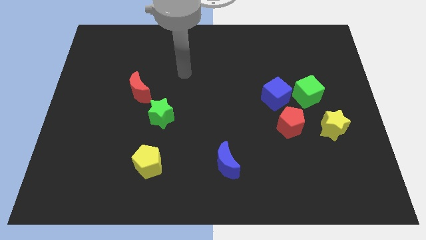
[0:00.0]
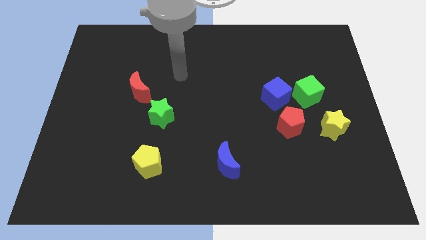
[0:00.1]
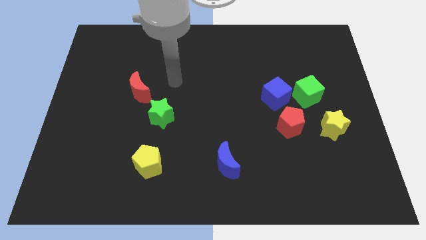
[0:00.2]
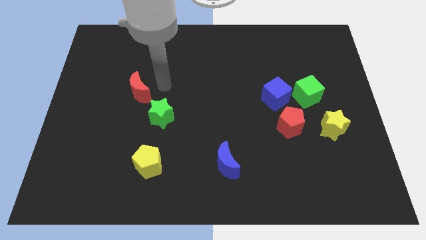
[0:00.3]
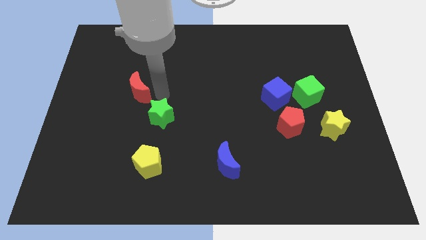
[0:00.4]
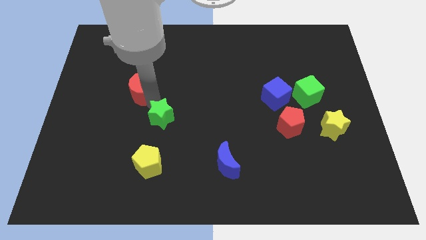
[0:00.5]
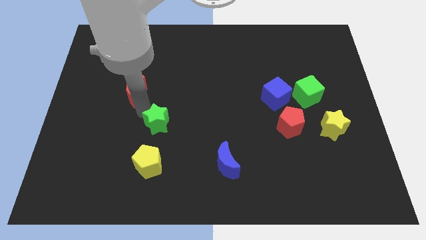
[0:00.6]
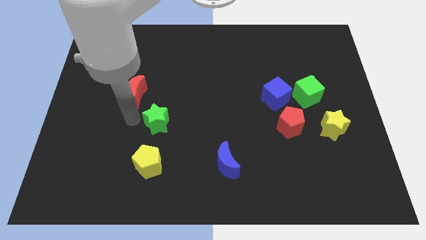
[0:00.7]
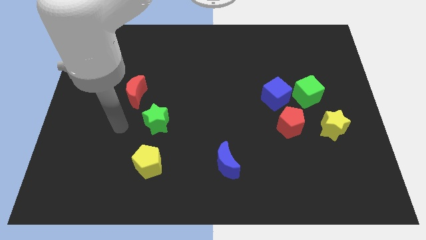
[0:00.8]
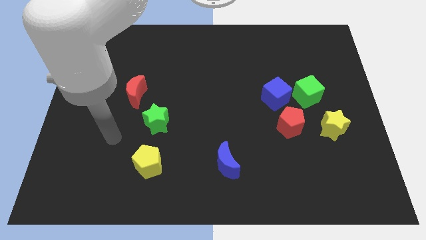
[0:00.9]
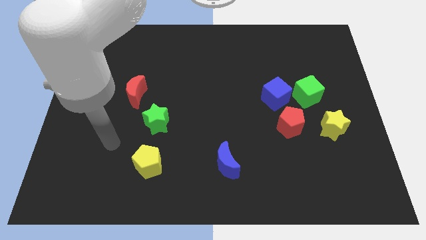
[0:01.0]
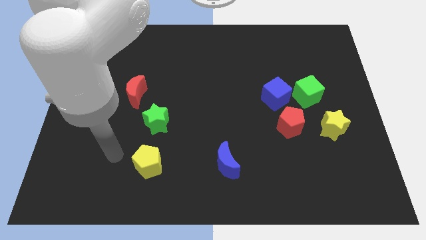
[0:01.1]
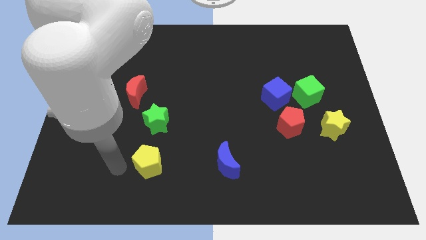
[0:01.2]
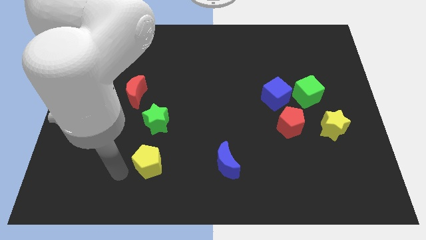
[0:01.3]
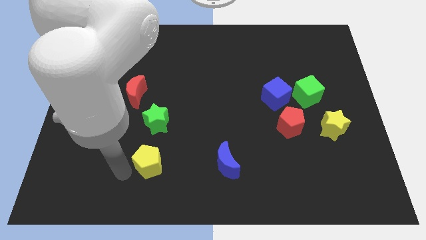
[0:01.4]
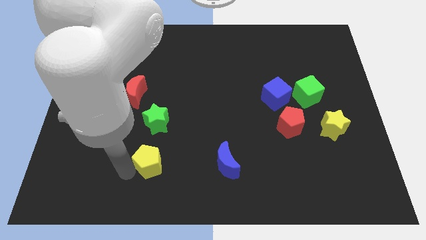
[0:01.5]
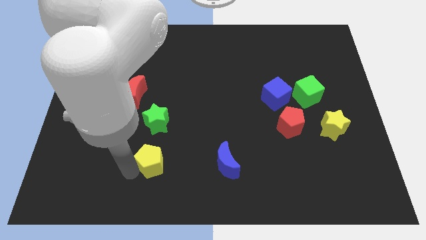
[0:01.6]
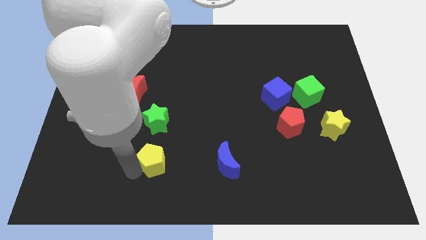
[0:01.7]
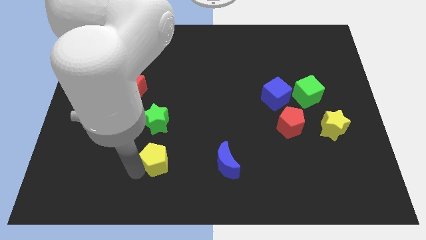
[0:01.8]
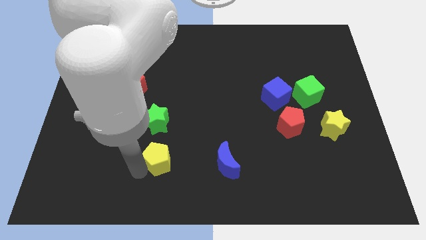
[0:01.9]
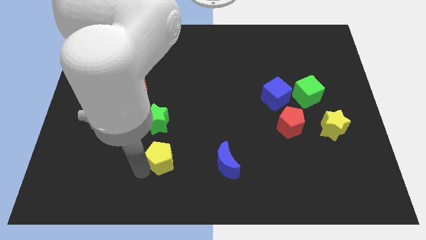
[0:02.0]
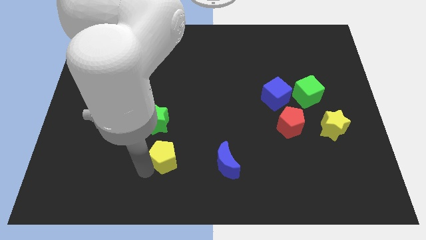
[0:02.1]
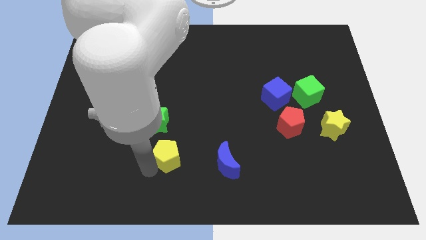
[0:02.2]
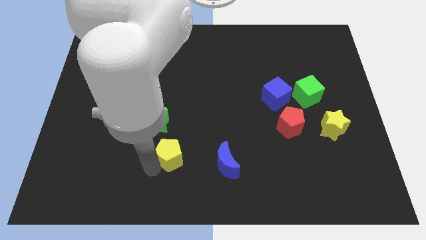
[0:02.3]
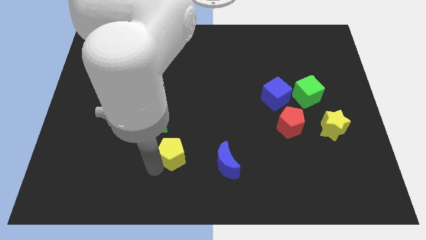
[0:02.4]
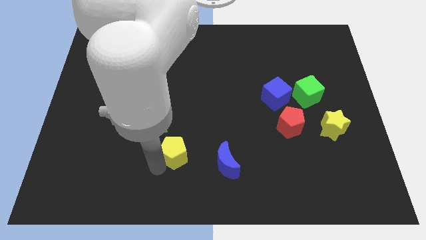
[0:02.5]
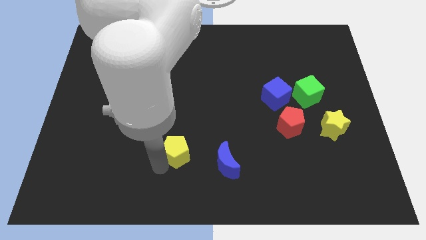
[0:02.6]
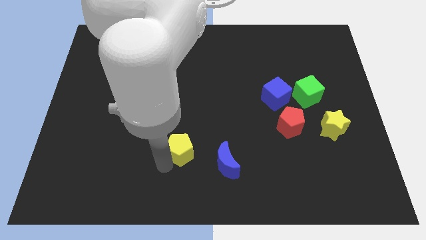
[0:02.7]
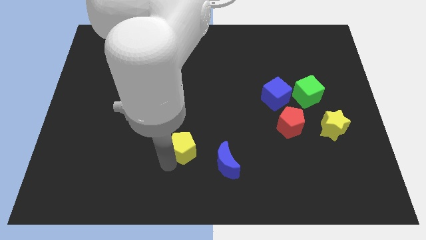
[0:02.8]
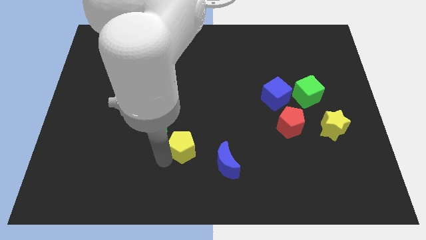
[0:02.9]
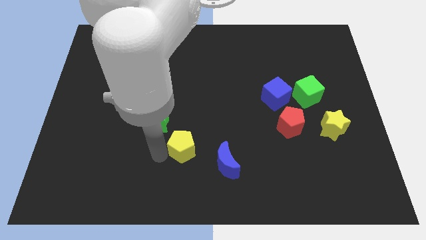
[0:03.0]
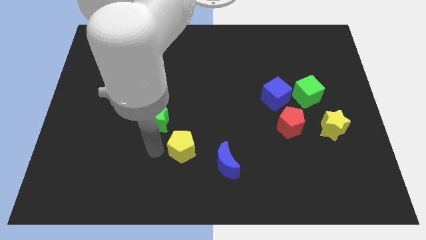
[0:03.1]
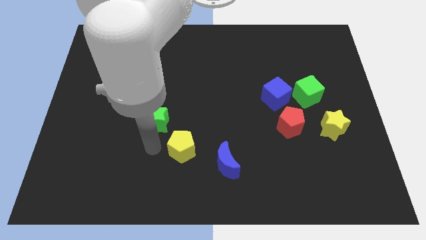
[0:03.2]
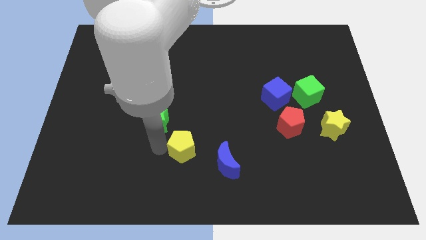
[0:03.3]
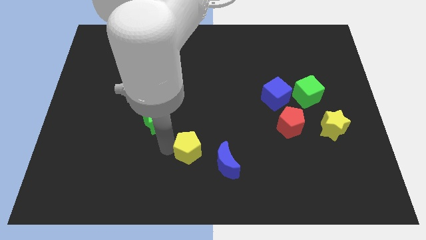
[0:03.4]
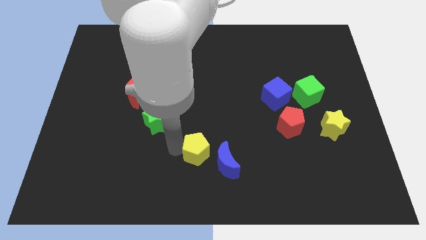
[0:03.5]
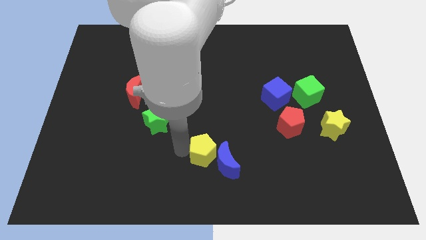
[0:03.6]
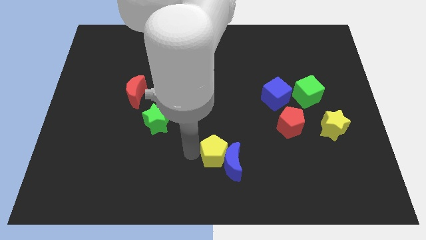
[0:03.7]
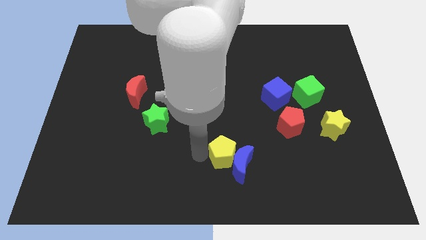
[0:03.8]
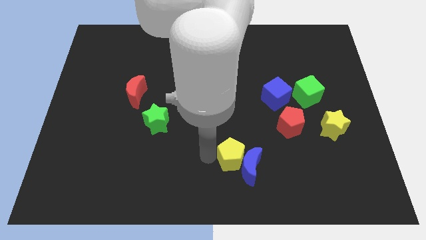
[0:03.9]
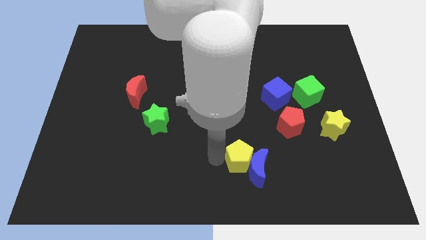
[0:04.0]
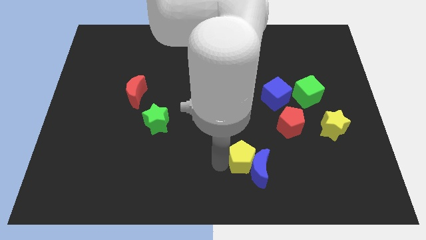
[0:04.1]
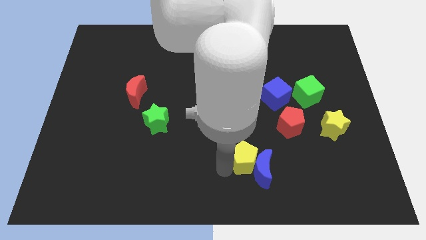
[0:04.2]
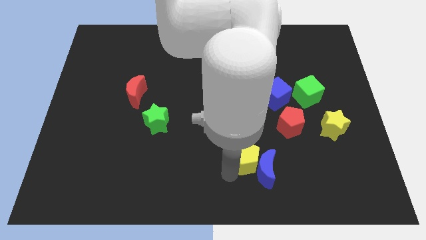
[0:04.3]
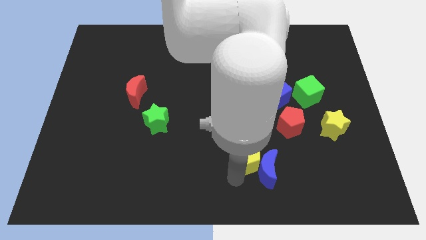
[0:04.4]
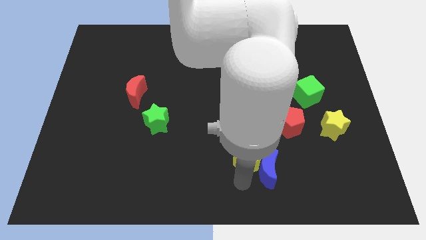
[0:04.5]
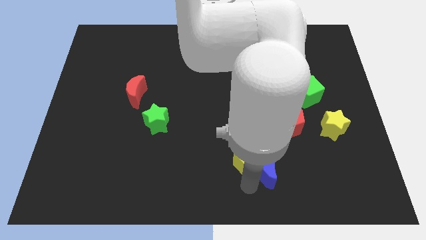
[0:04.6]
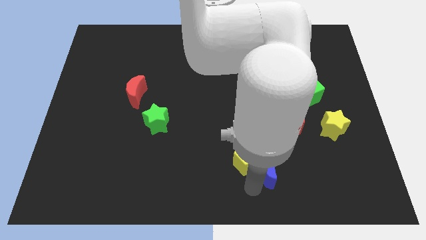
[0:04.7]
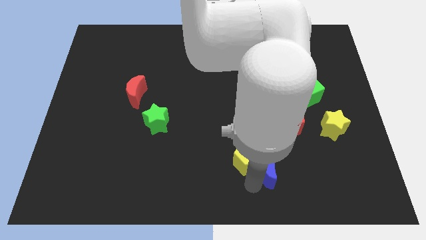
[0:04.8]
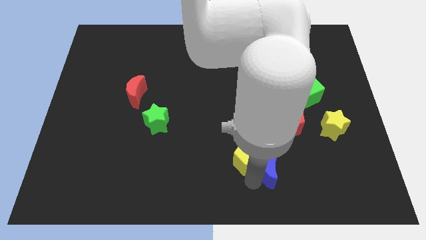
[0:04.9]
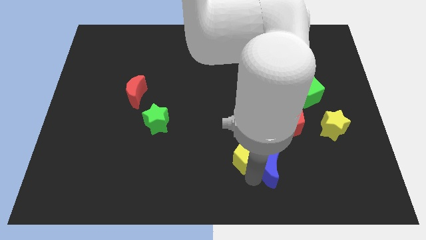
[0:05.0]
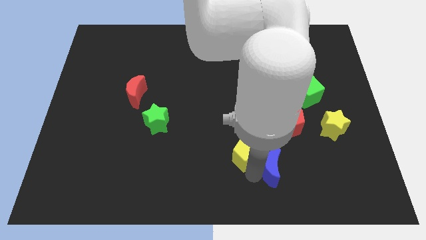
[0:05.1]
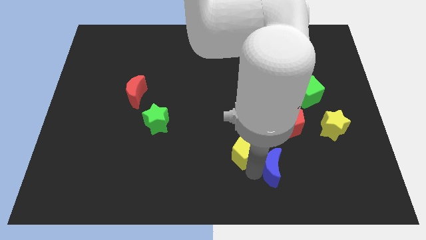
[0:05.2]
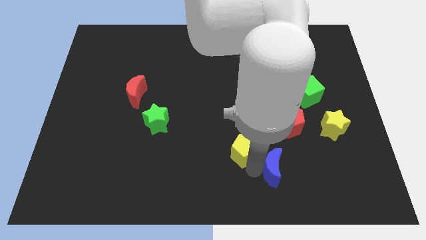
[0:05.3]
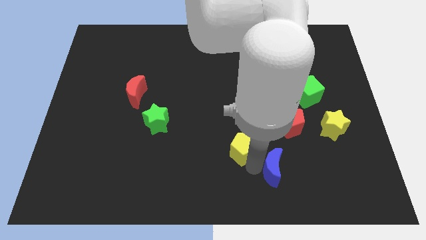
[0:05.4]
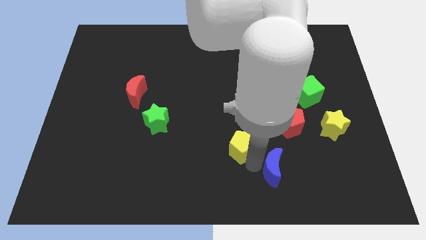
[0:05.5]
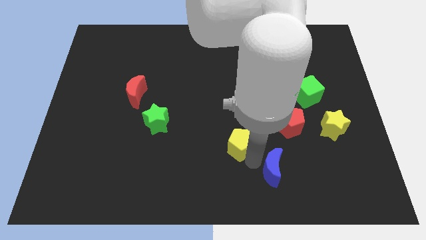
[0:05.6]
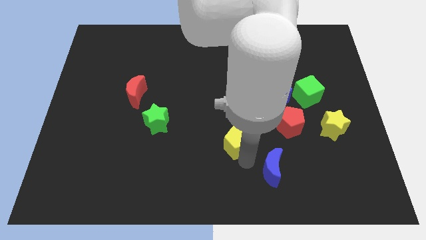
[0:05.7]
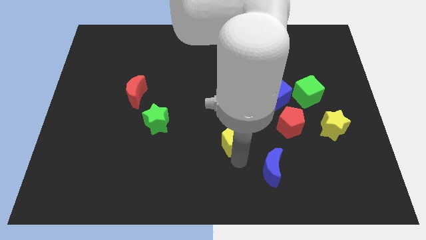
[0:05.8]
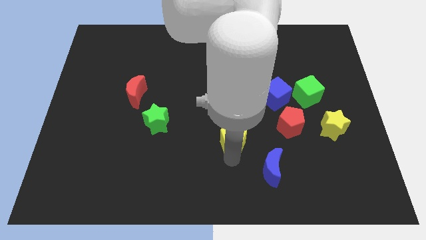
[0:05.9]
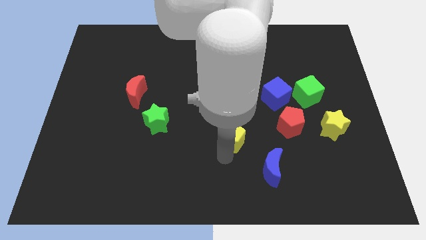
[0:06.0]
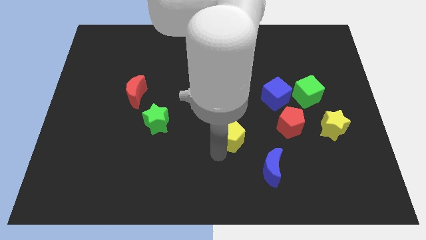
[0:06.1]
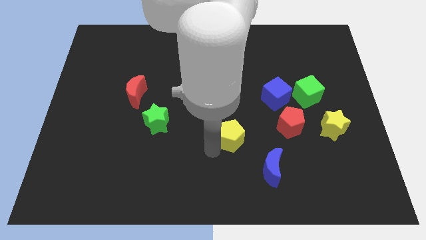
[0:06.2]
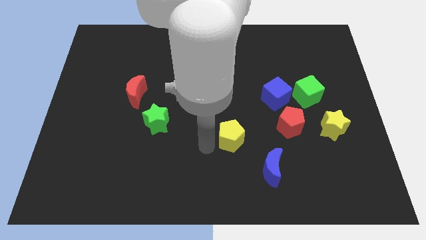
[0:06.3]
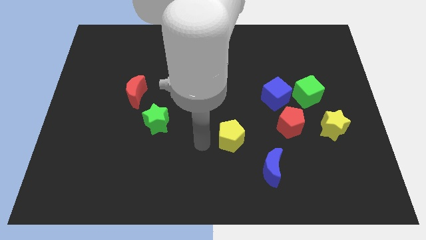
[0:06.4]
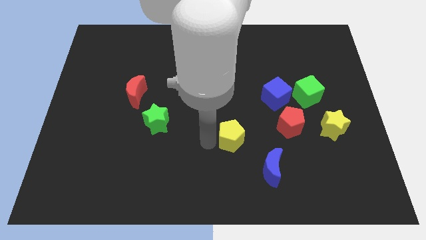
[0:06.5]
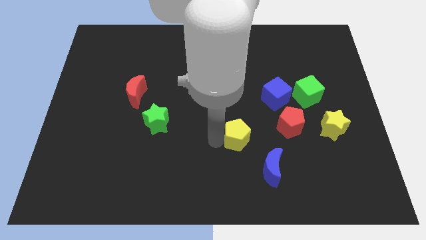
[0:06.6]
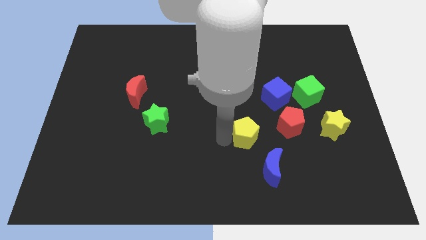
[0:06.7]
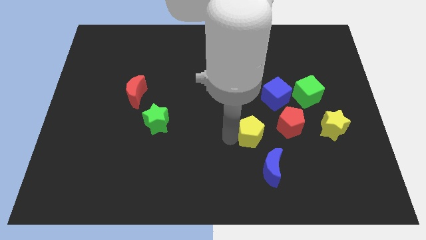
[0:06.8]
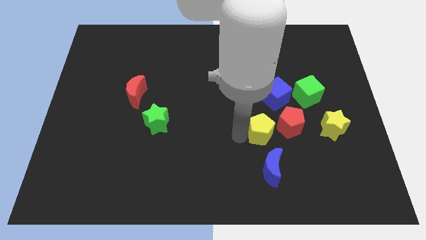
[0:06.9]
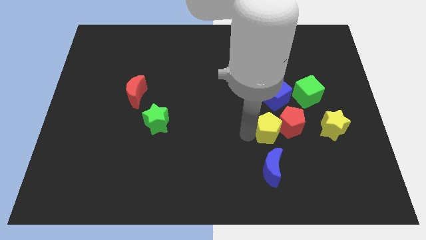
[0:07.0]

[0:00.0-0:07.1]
put the yellow pentagon close to the red pentagon
